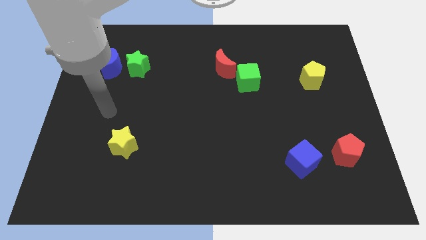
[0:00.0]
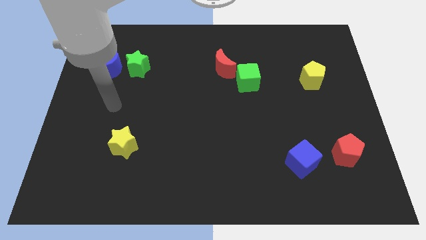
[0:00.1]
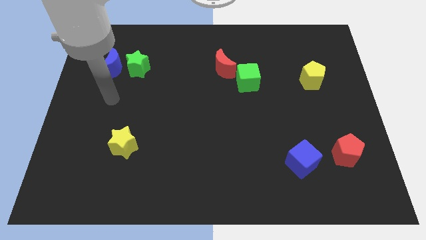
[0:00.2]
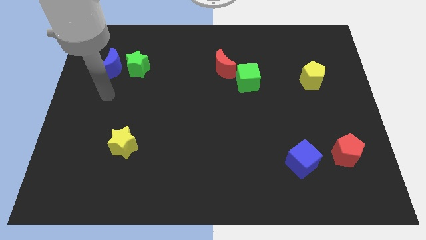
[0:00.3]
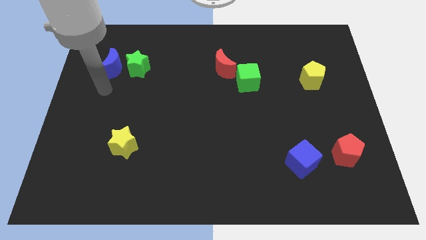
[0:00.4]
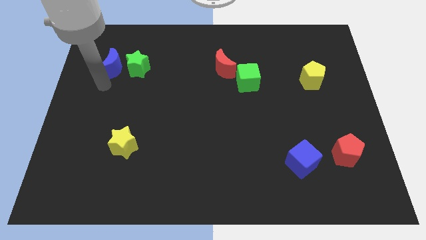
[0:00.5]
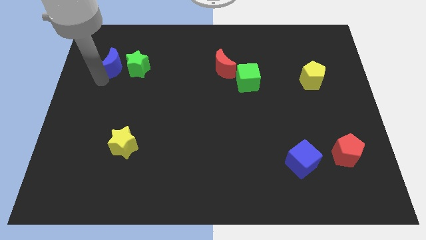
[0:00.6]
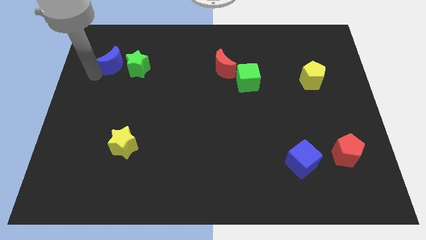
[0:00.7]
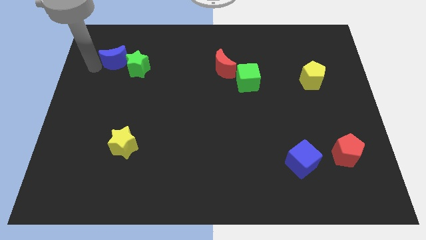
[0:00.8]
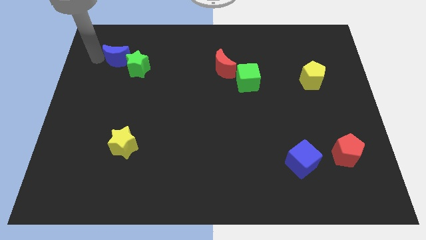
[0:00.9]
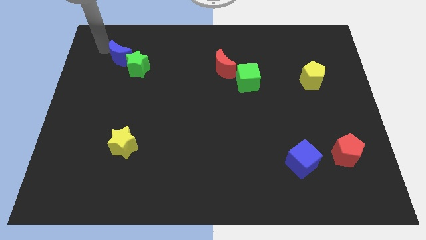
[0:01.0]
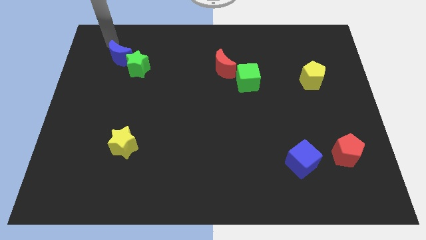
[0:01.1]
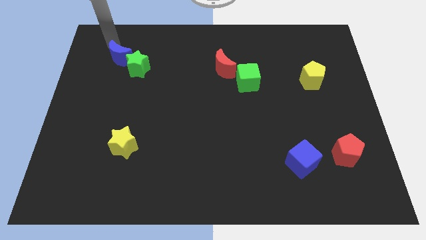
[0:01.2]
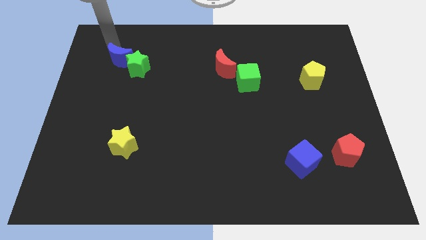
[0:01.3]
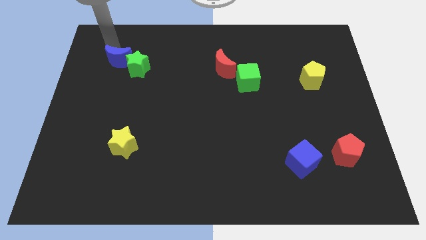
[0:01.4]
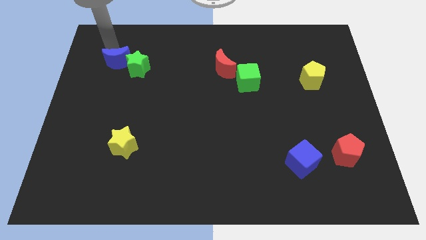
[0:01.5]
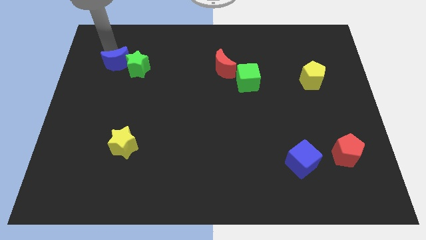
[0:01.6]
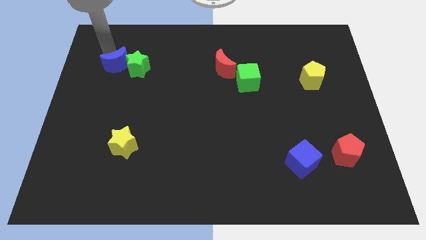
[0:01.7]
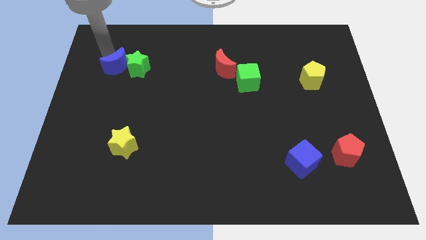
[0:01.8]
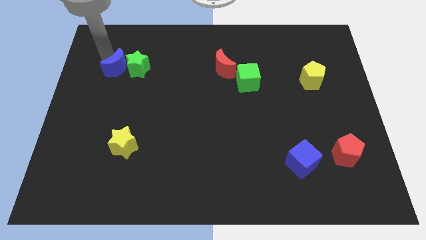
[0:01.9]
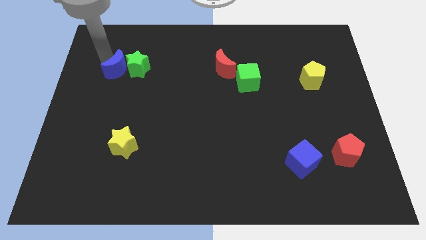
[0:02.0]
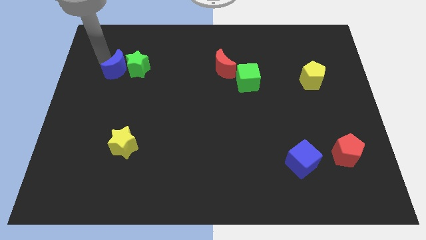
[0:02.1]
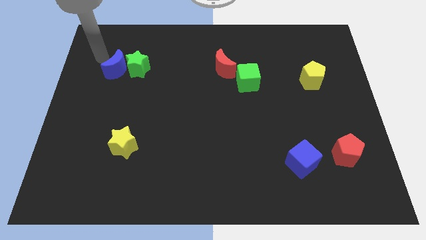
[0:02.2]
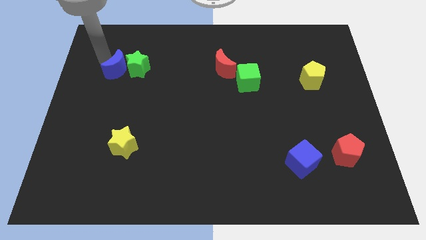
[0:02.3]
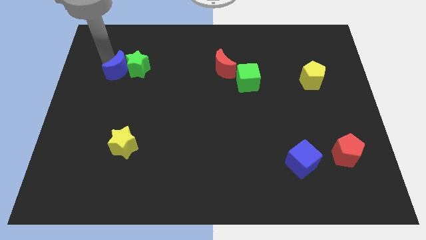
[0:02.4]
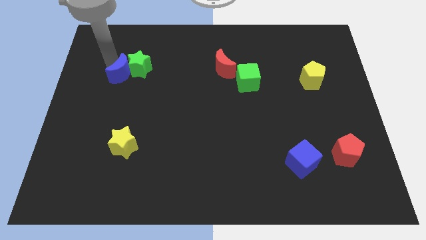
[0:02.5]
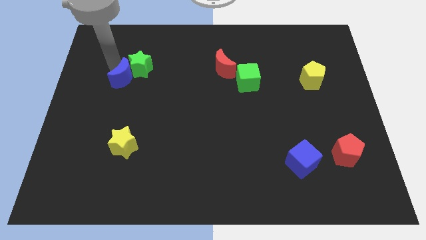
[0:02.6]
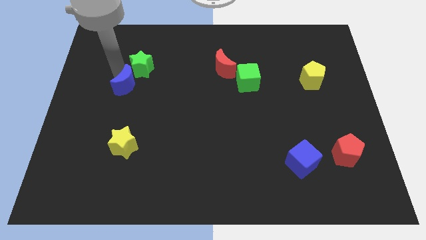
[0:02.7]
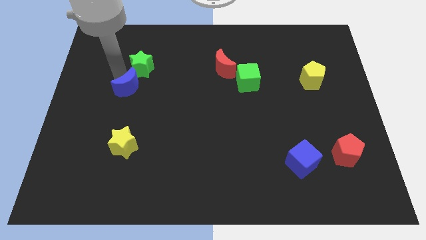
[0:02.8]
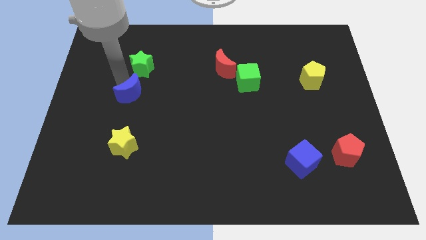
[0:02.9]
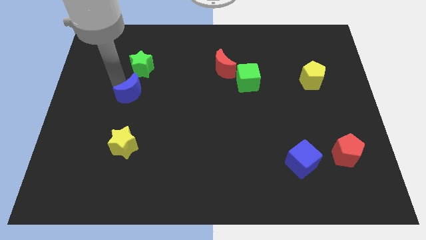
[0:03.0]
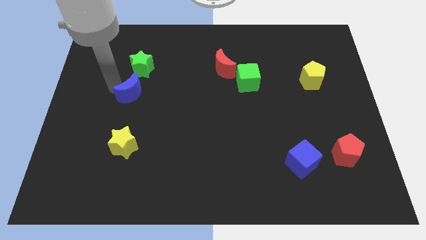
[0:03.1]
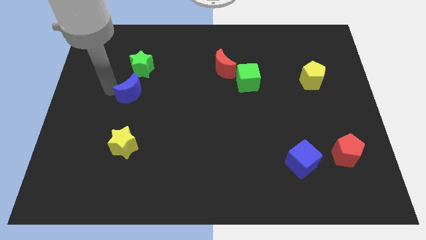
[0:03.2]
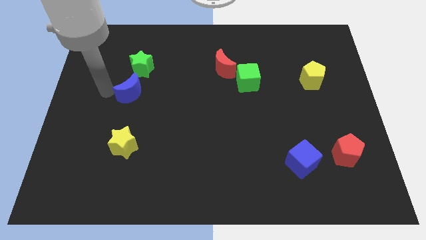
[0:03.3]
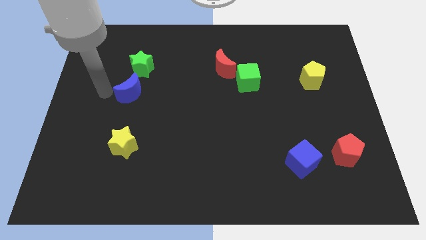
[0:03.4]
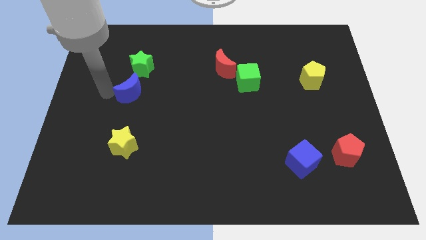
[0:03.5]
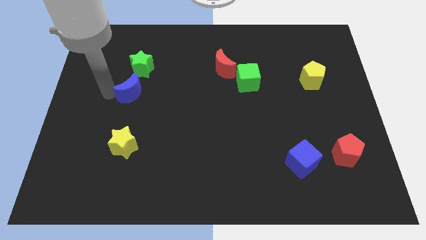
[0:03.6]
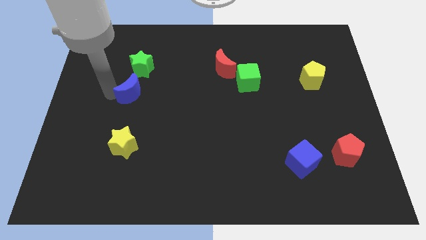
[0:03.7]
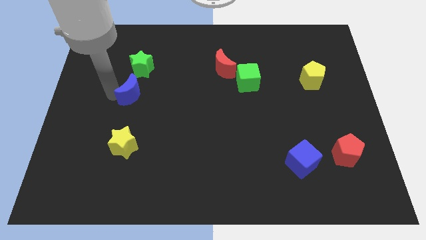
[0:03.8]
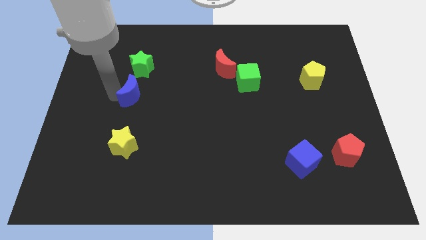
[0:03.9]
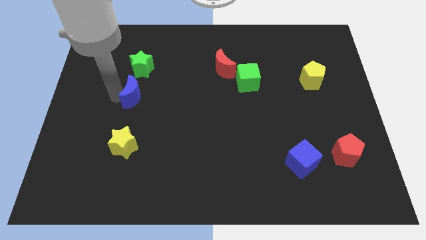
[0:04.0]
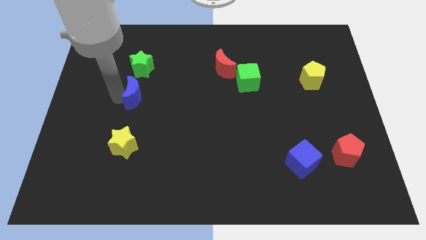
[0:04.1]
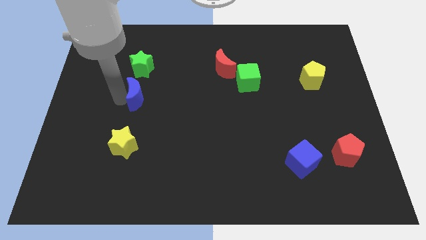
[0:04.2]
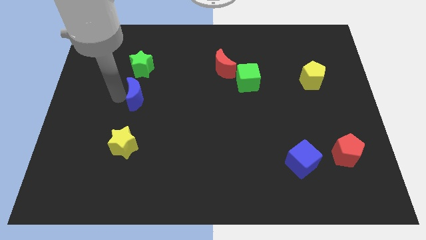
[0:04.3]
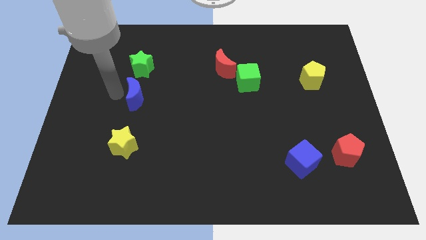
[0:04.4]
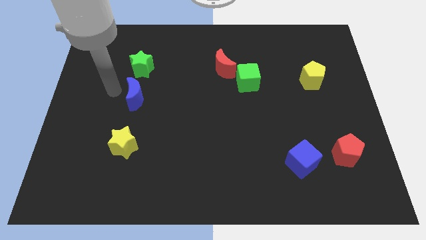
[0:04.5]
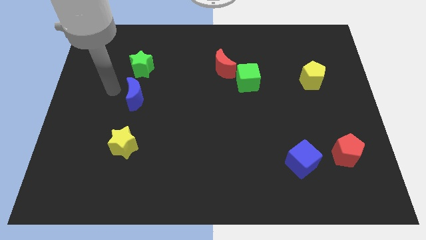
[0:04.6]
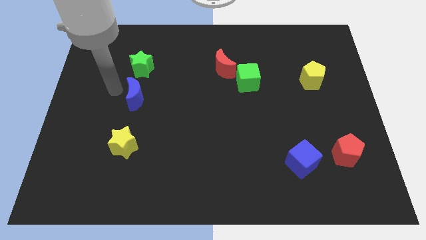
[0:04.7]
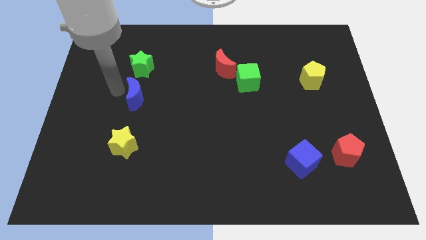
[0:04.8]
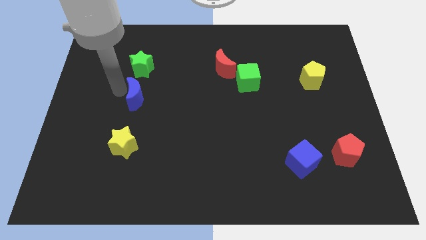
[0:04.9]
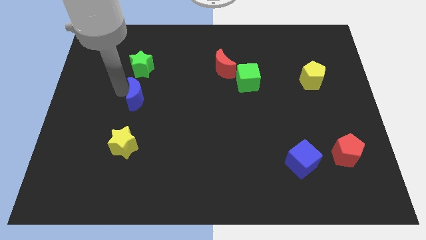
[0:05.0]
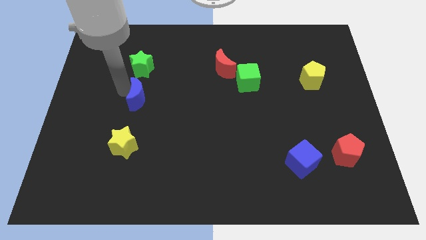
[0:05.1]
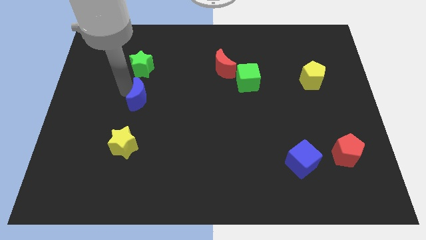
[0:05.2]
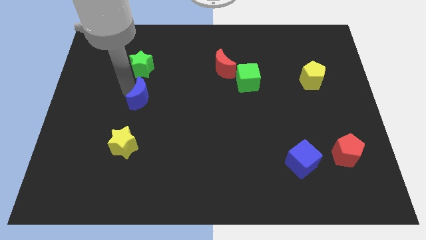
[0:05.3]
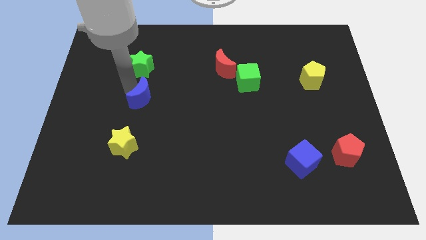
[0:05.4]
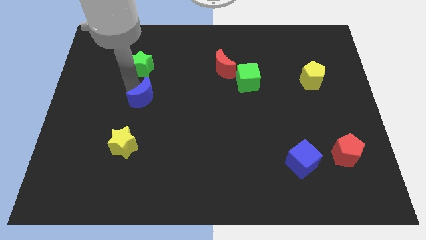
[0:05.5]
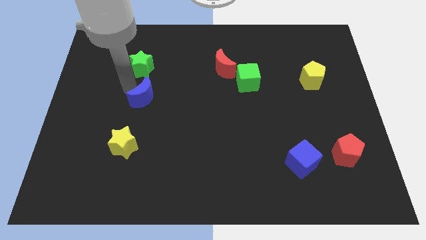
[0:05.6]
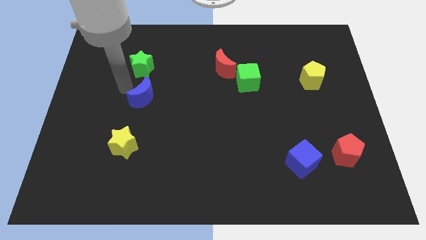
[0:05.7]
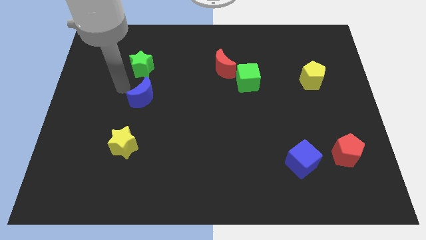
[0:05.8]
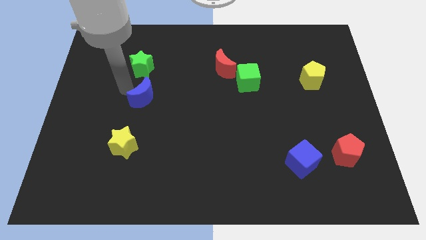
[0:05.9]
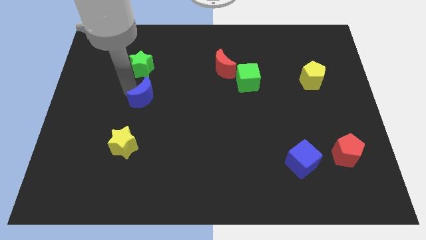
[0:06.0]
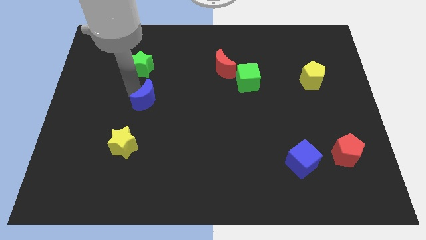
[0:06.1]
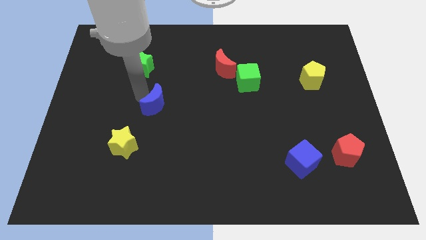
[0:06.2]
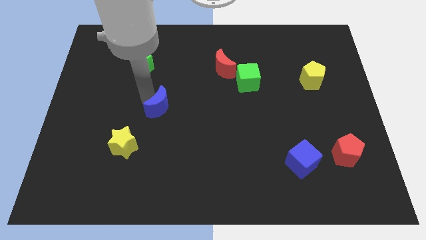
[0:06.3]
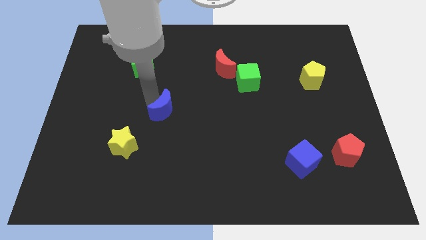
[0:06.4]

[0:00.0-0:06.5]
push the blue moon diagonally down and right

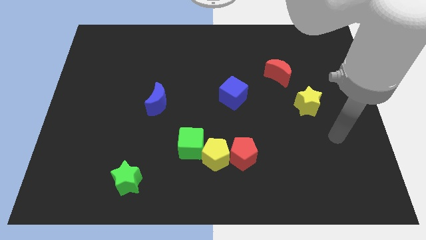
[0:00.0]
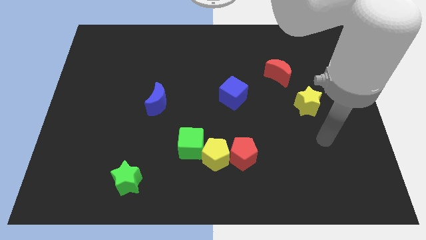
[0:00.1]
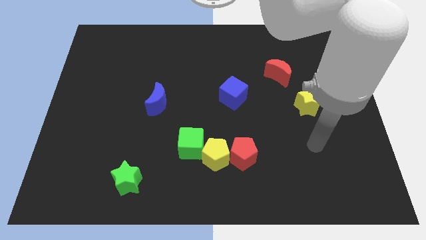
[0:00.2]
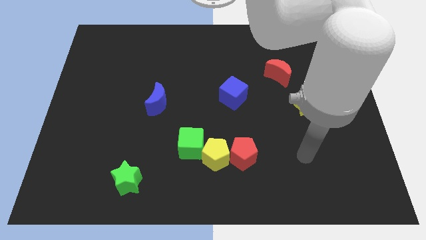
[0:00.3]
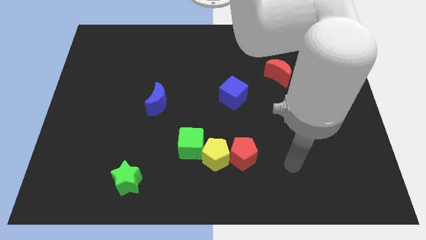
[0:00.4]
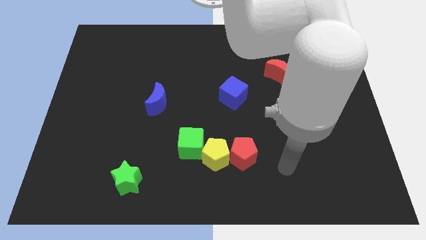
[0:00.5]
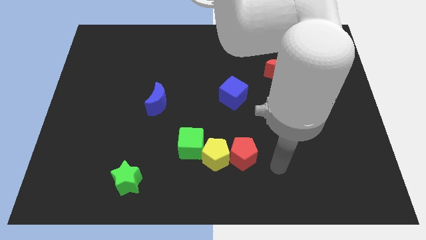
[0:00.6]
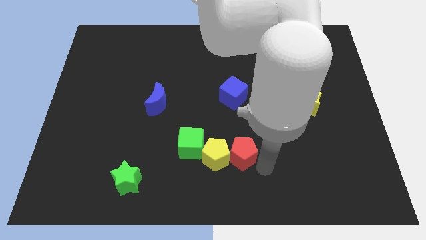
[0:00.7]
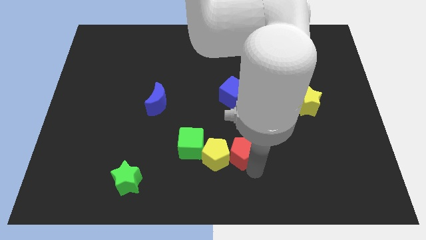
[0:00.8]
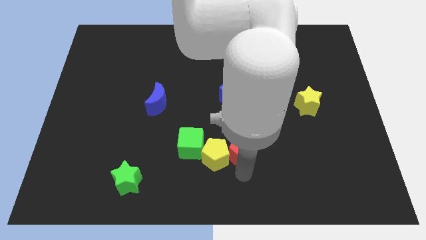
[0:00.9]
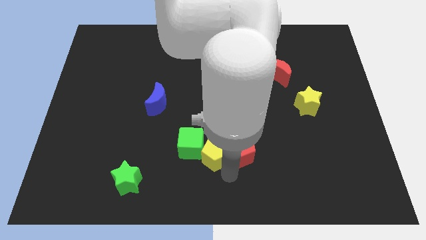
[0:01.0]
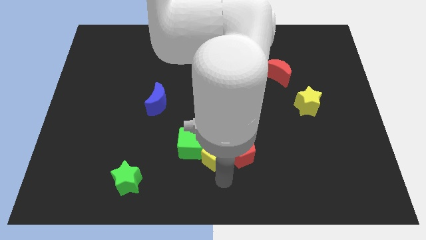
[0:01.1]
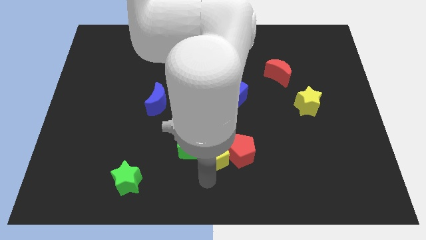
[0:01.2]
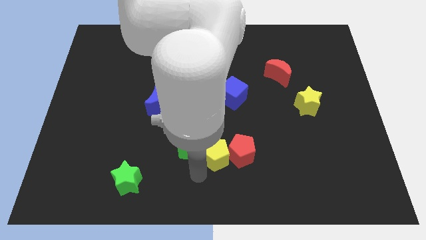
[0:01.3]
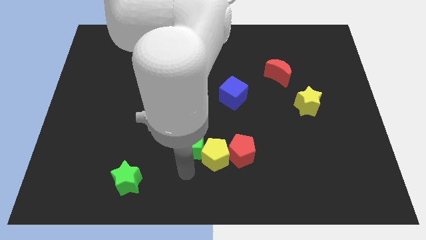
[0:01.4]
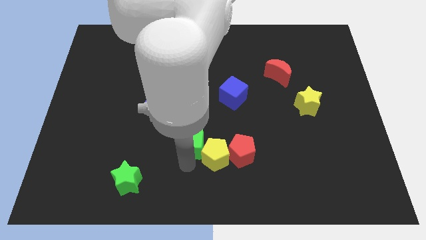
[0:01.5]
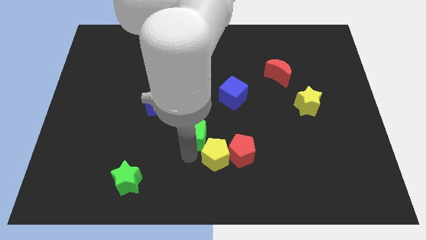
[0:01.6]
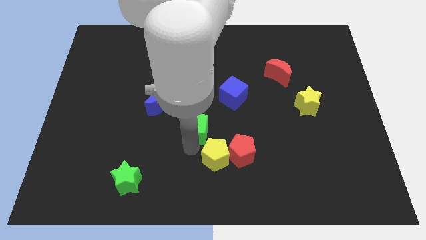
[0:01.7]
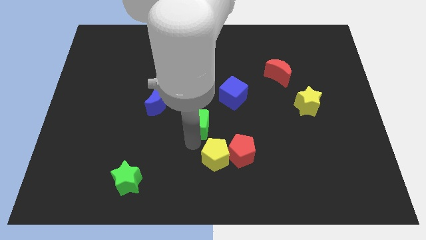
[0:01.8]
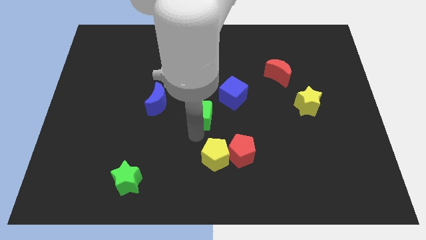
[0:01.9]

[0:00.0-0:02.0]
slightly move the green cube up
